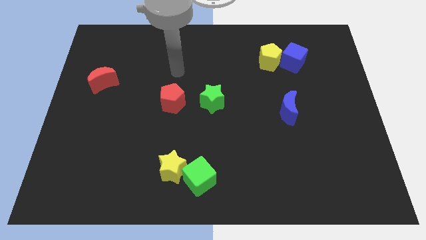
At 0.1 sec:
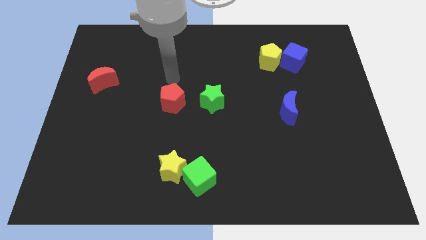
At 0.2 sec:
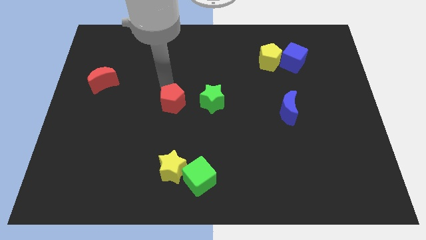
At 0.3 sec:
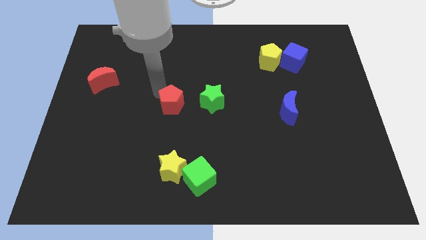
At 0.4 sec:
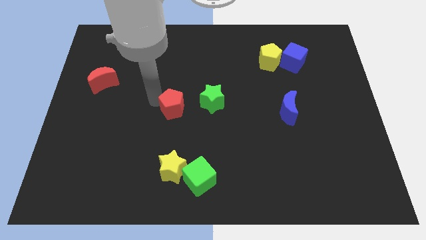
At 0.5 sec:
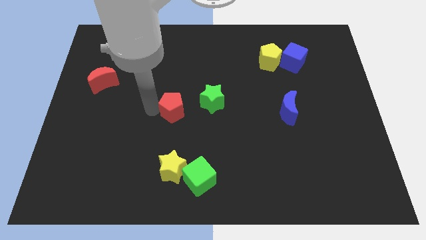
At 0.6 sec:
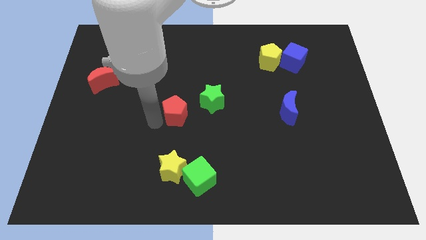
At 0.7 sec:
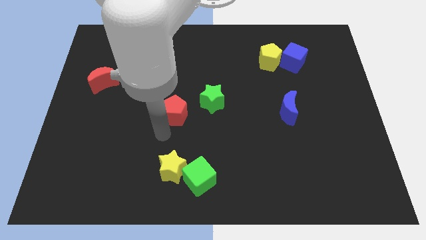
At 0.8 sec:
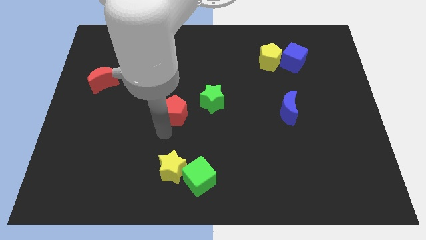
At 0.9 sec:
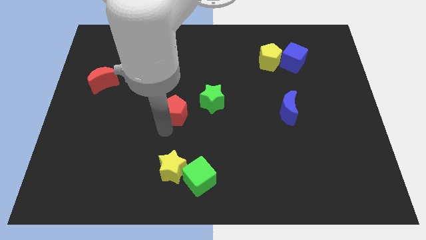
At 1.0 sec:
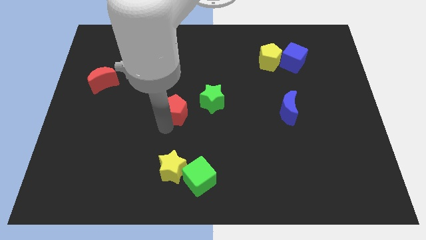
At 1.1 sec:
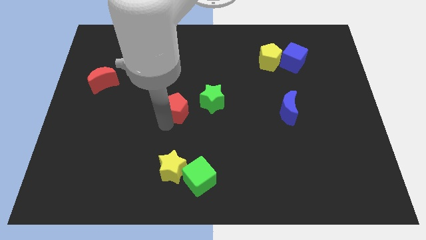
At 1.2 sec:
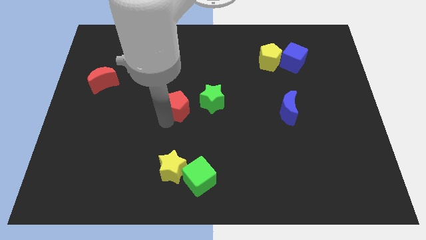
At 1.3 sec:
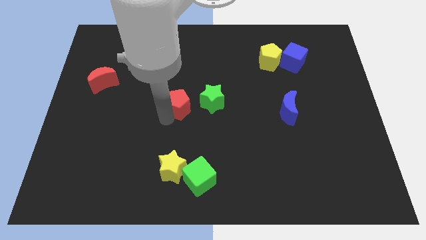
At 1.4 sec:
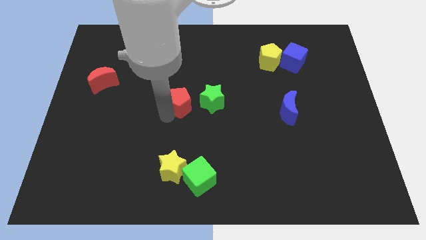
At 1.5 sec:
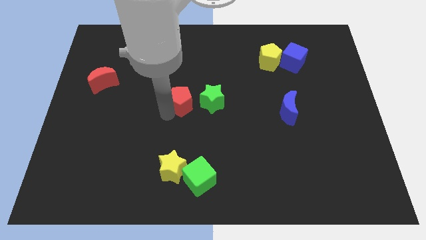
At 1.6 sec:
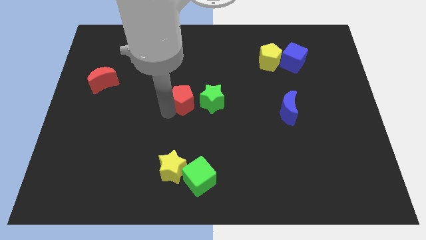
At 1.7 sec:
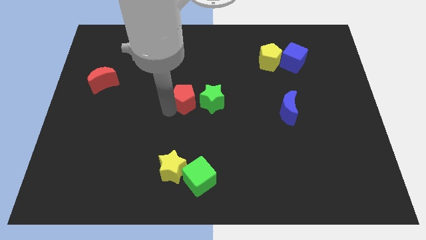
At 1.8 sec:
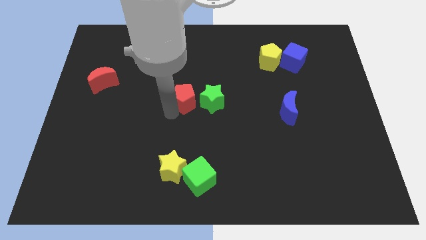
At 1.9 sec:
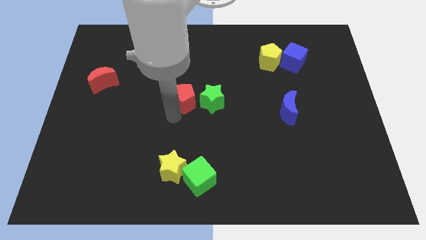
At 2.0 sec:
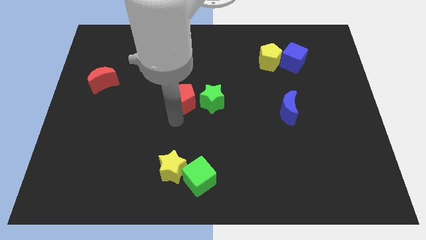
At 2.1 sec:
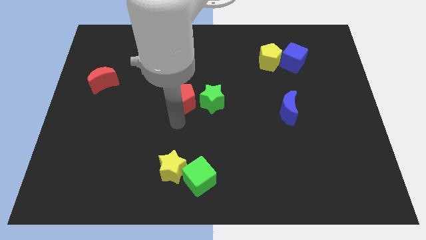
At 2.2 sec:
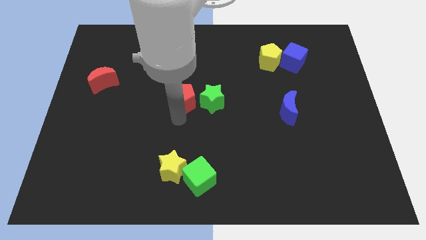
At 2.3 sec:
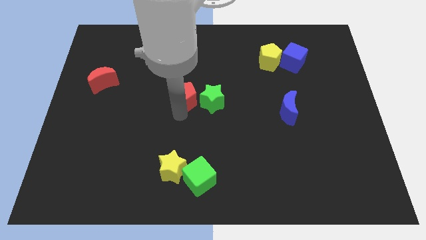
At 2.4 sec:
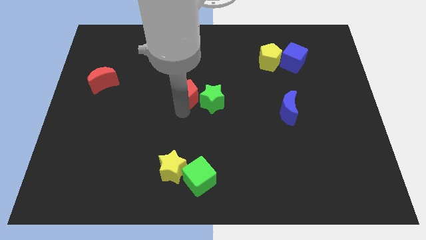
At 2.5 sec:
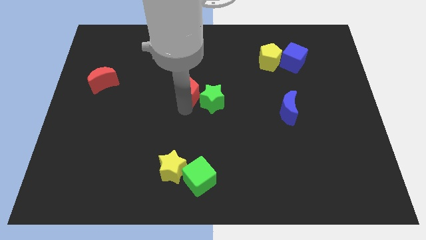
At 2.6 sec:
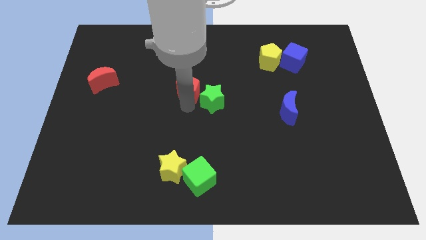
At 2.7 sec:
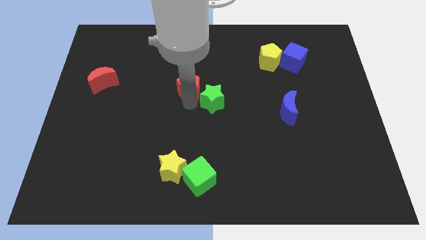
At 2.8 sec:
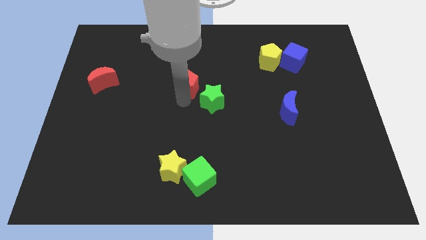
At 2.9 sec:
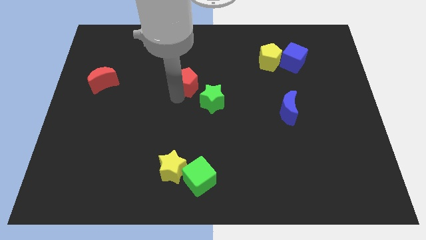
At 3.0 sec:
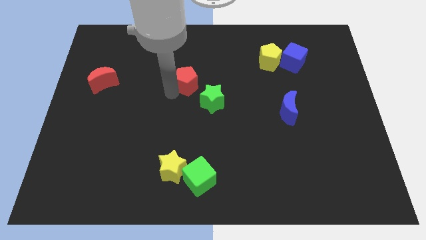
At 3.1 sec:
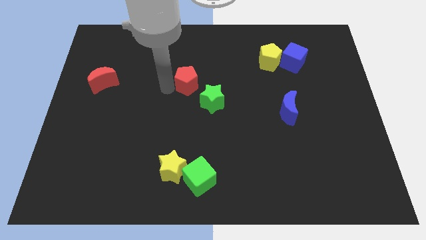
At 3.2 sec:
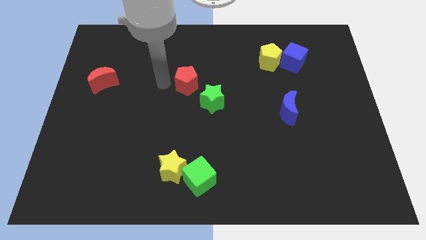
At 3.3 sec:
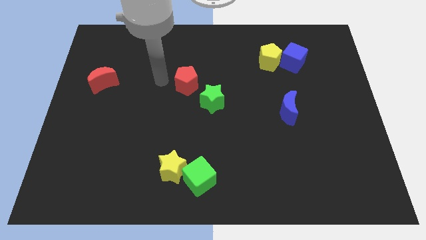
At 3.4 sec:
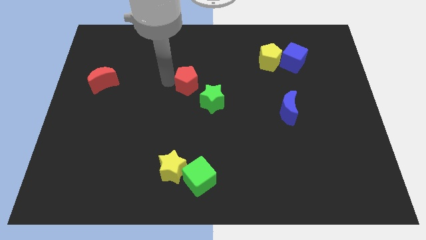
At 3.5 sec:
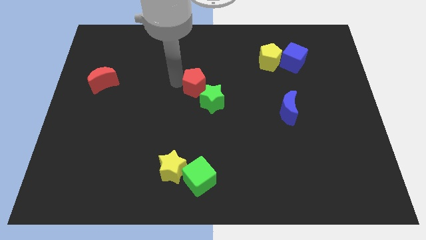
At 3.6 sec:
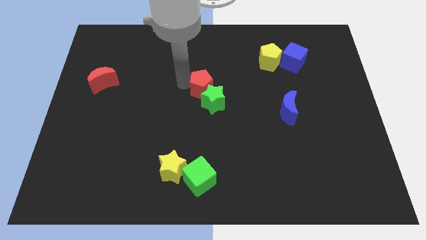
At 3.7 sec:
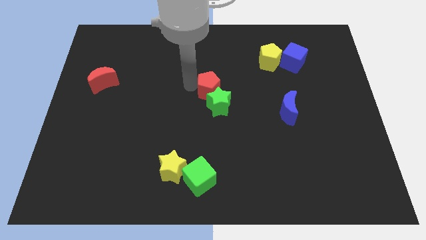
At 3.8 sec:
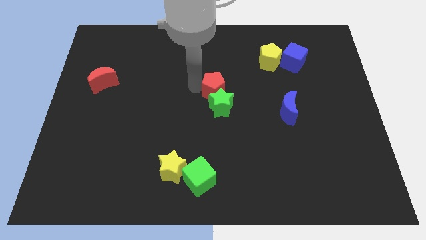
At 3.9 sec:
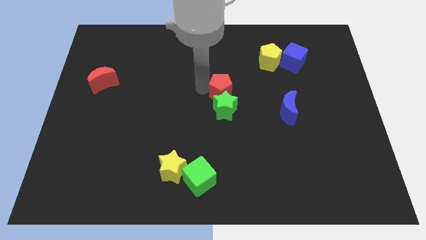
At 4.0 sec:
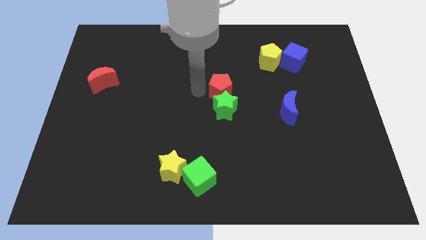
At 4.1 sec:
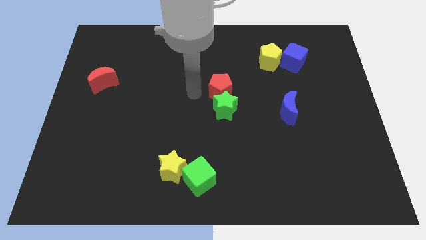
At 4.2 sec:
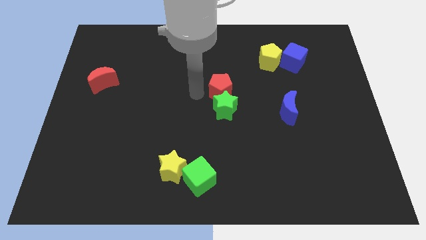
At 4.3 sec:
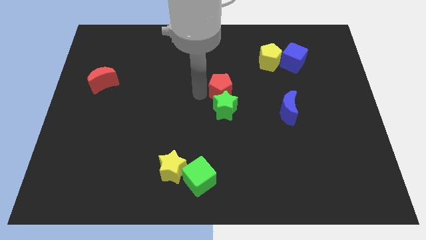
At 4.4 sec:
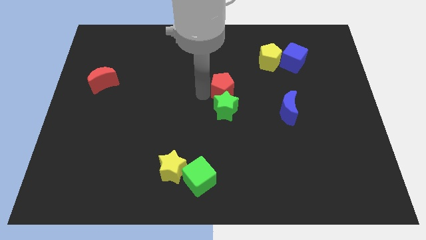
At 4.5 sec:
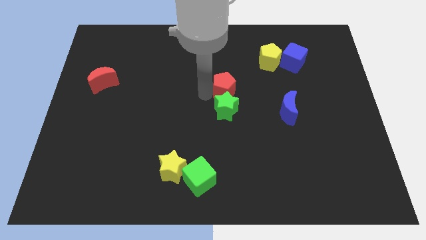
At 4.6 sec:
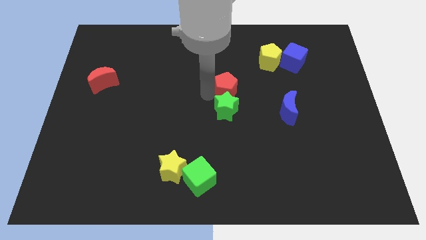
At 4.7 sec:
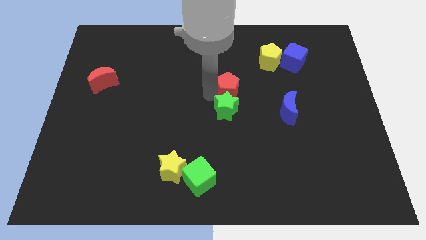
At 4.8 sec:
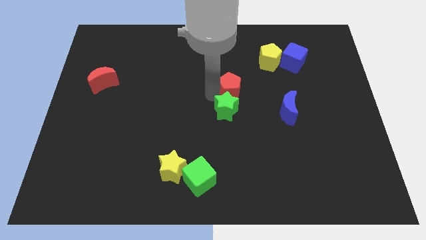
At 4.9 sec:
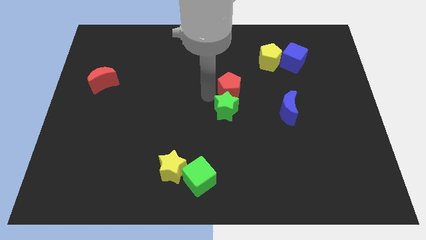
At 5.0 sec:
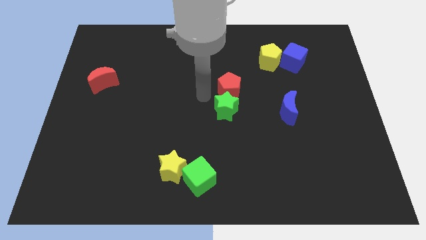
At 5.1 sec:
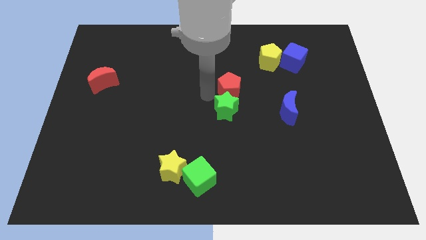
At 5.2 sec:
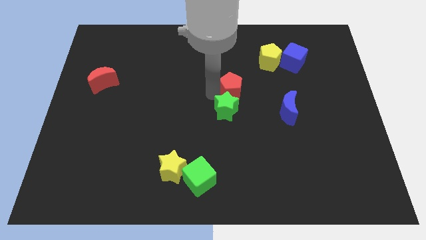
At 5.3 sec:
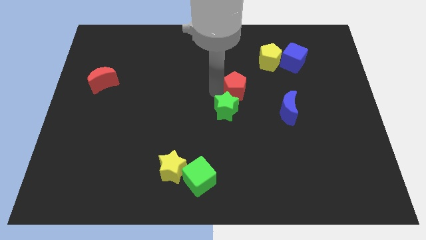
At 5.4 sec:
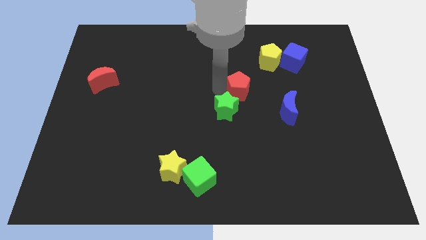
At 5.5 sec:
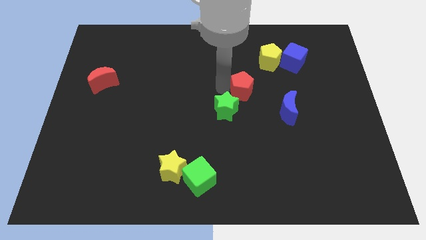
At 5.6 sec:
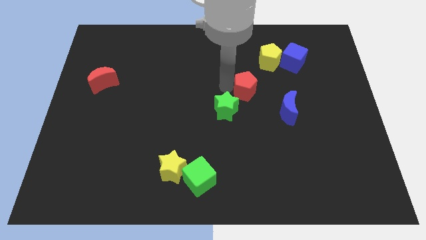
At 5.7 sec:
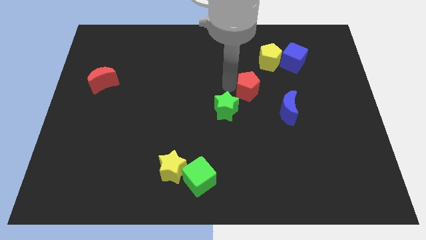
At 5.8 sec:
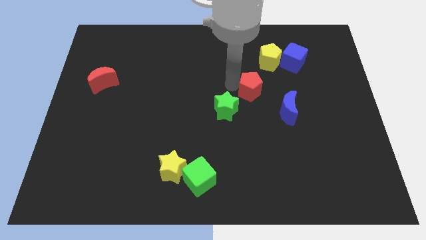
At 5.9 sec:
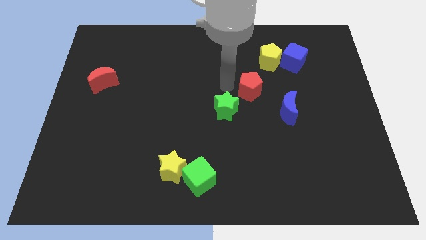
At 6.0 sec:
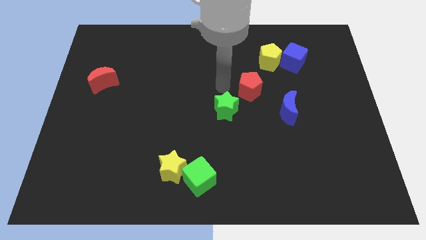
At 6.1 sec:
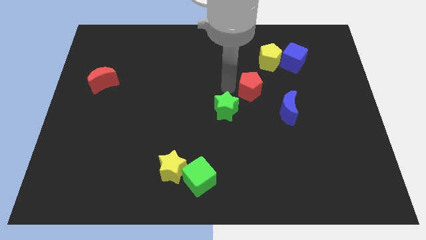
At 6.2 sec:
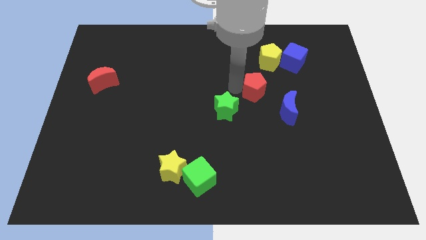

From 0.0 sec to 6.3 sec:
slide the red pentagon to the bottom side of the yellow pentagon
